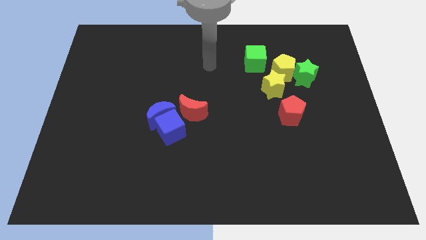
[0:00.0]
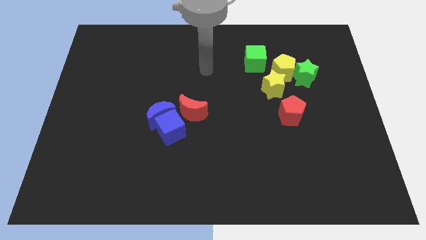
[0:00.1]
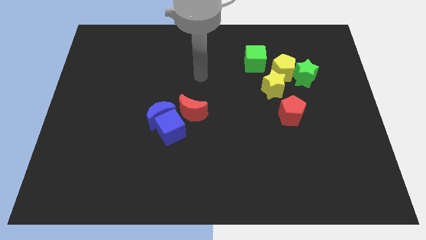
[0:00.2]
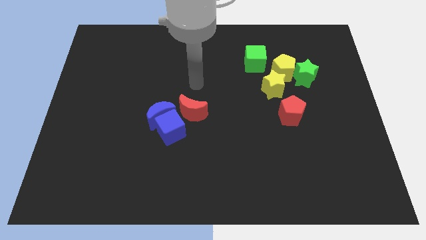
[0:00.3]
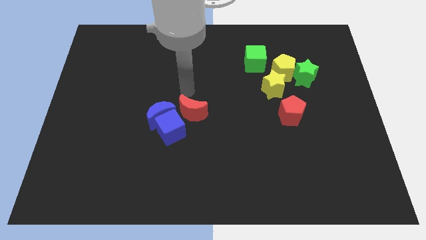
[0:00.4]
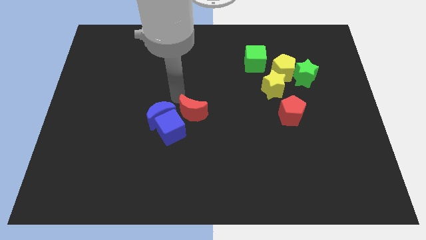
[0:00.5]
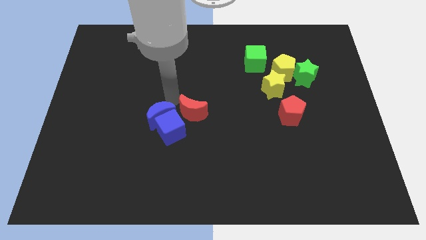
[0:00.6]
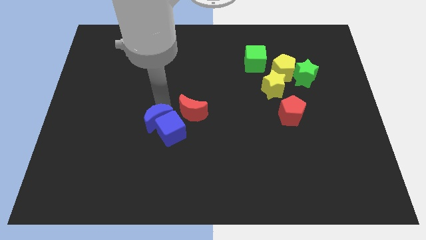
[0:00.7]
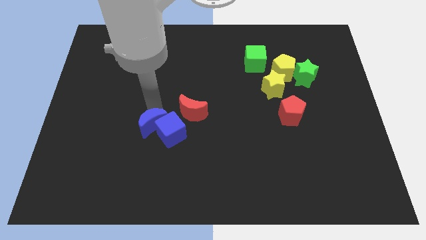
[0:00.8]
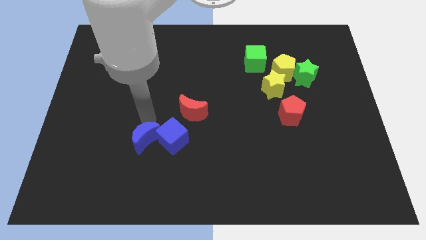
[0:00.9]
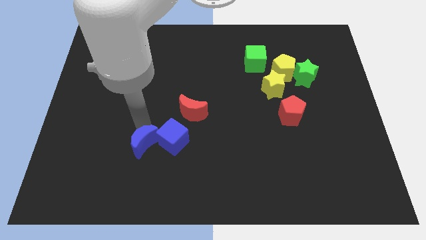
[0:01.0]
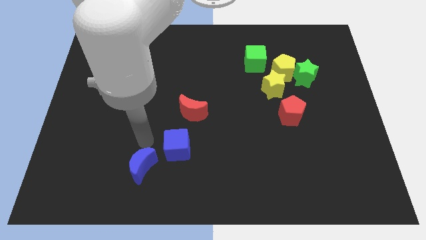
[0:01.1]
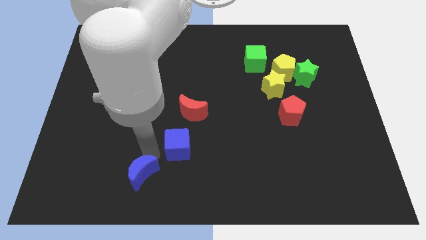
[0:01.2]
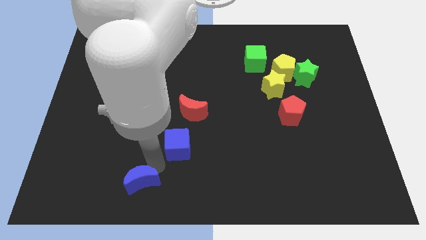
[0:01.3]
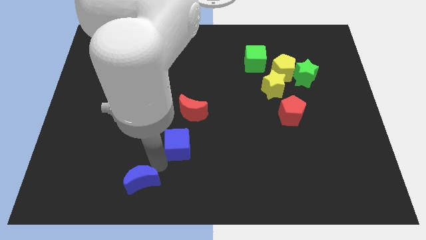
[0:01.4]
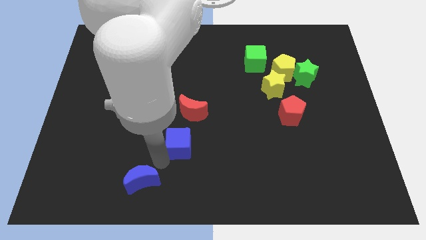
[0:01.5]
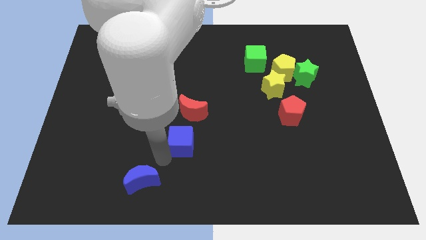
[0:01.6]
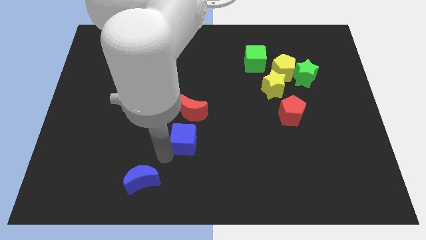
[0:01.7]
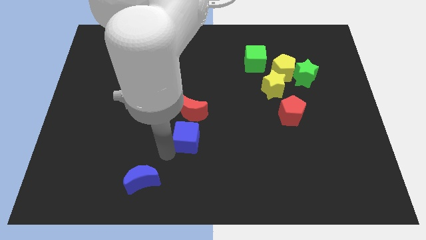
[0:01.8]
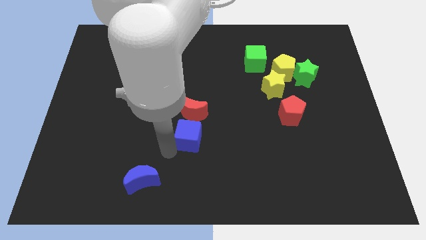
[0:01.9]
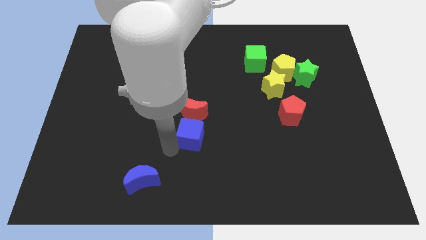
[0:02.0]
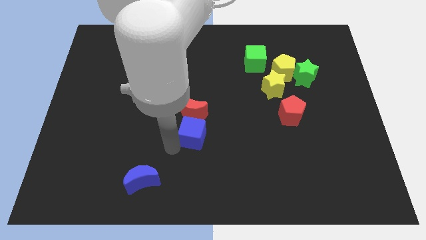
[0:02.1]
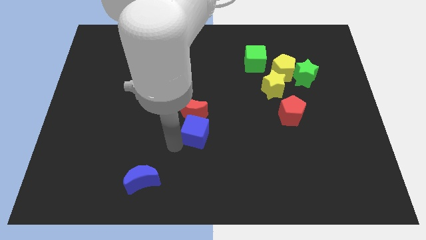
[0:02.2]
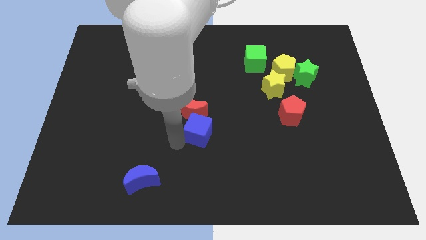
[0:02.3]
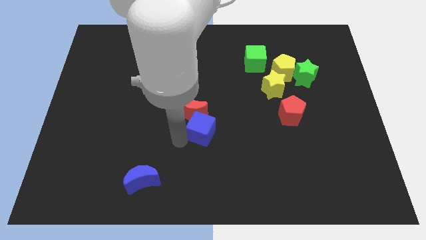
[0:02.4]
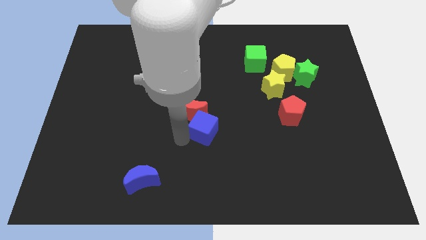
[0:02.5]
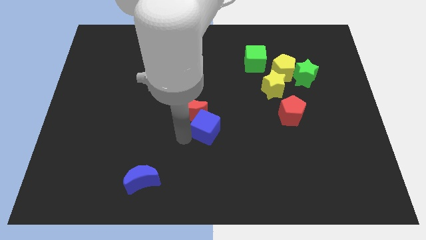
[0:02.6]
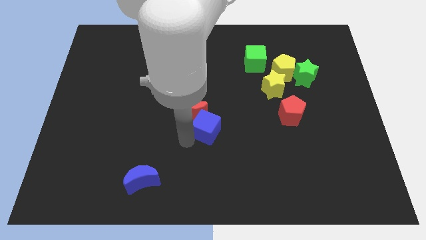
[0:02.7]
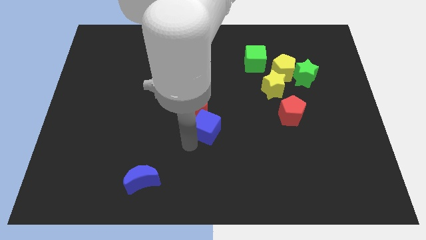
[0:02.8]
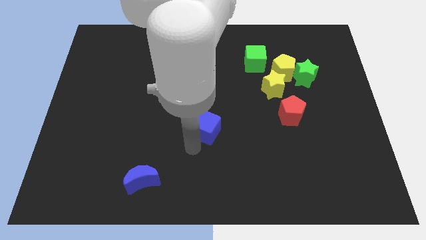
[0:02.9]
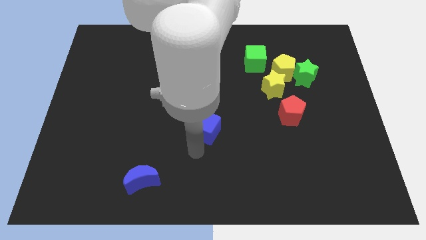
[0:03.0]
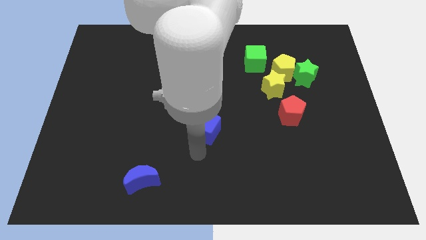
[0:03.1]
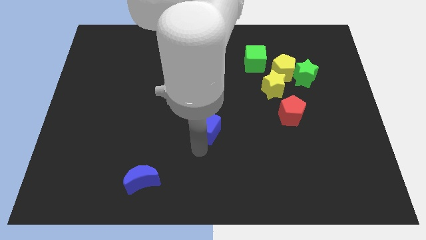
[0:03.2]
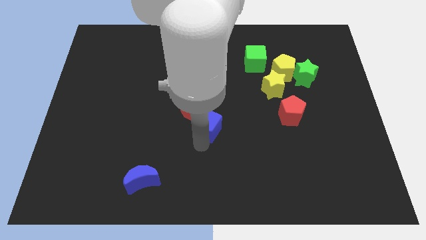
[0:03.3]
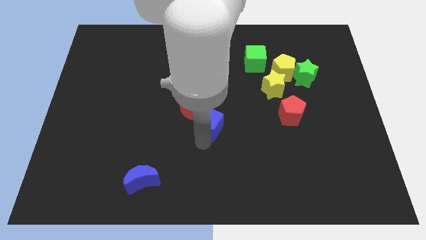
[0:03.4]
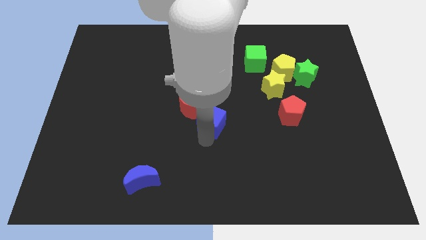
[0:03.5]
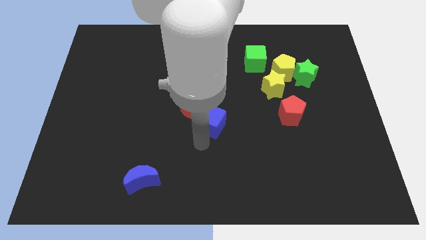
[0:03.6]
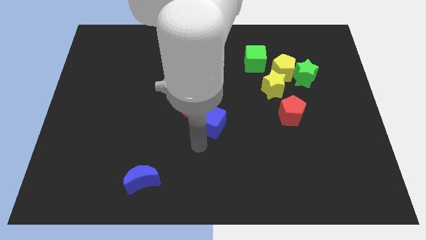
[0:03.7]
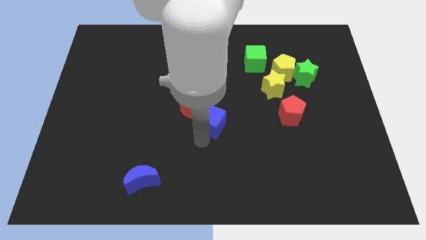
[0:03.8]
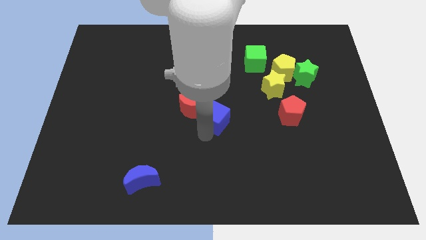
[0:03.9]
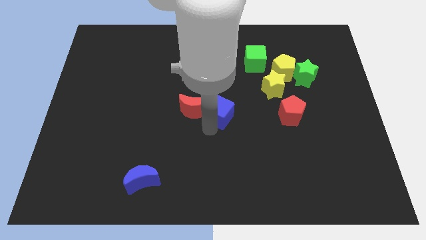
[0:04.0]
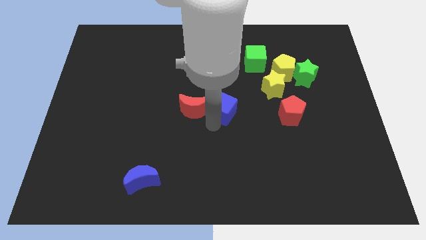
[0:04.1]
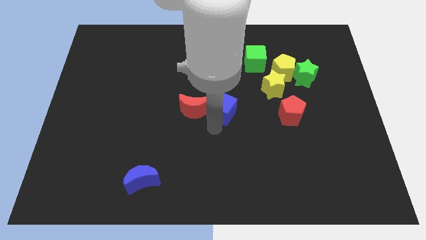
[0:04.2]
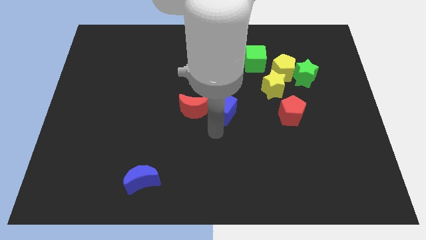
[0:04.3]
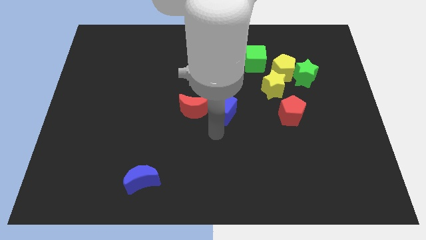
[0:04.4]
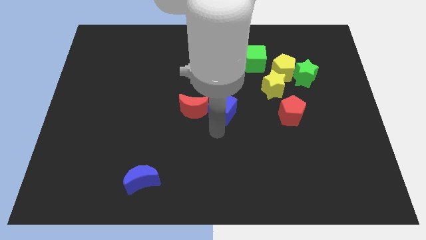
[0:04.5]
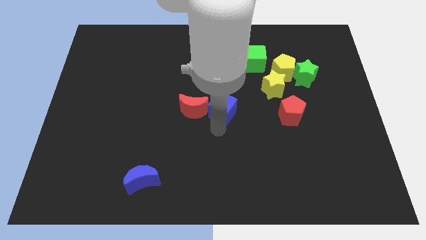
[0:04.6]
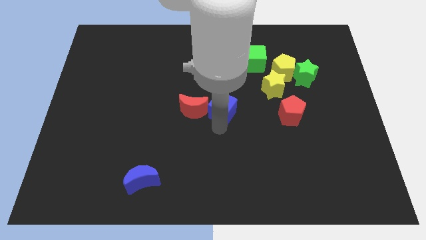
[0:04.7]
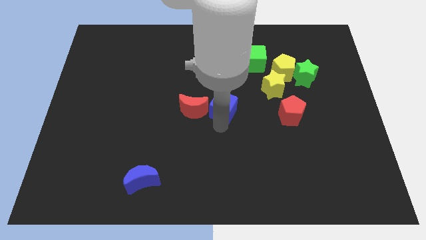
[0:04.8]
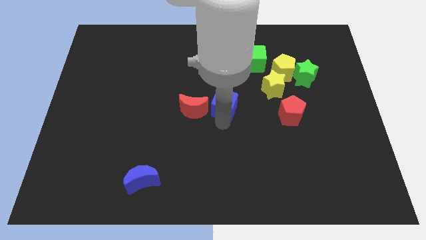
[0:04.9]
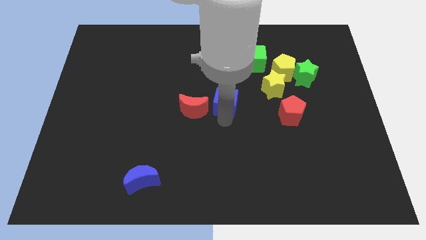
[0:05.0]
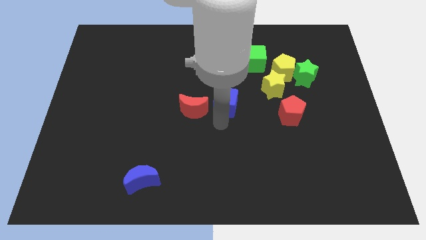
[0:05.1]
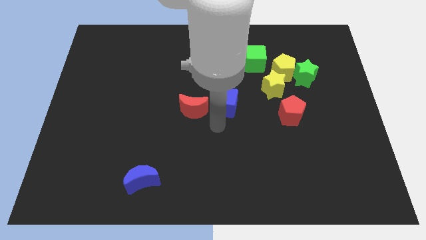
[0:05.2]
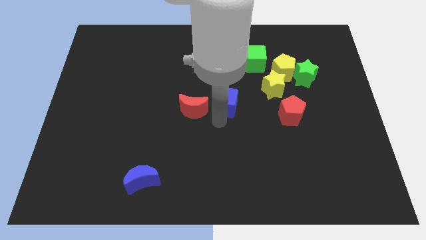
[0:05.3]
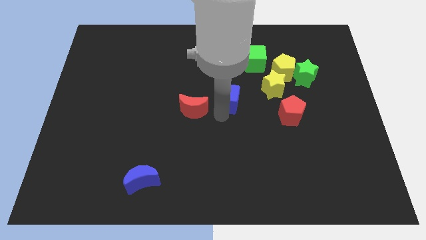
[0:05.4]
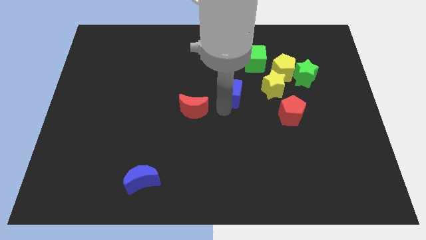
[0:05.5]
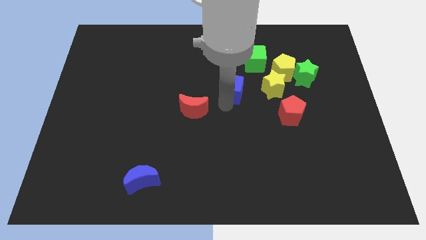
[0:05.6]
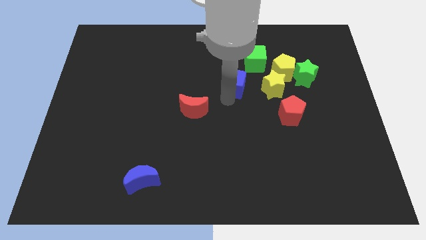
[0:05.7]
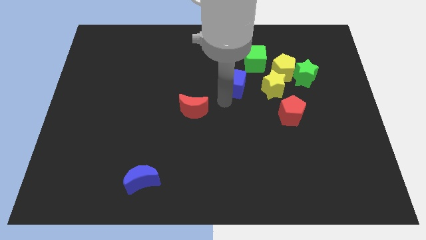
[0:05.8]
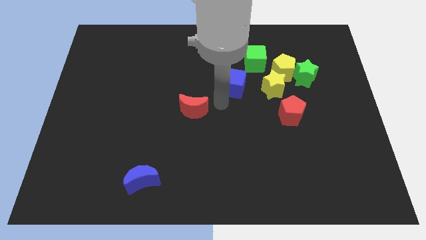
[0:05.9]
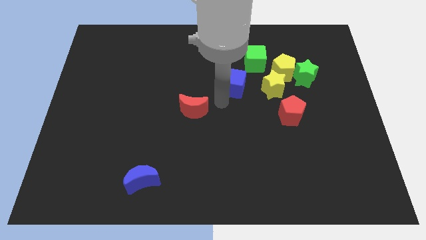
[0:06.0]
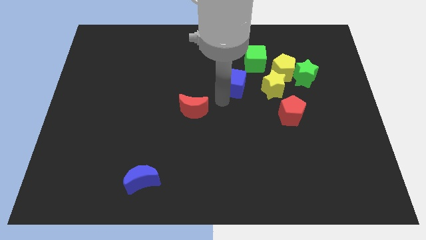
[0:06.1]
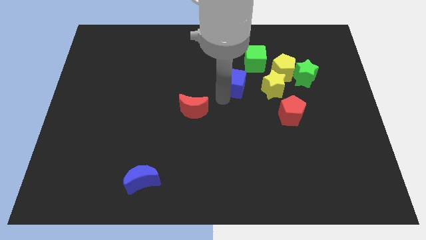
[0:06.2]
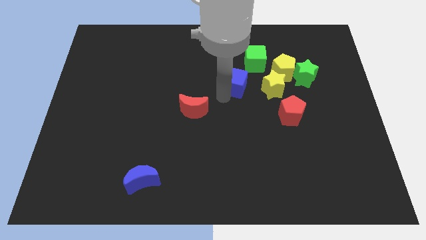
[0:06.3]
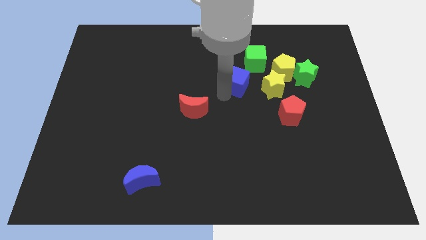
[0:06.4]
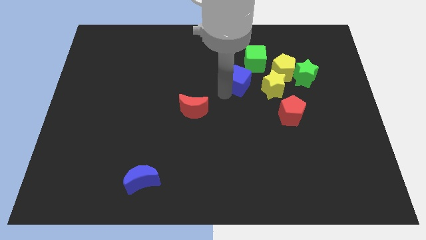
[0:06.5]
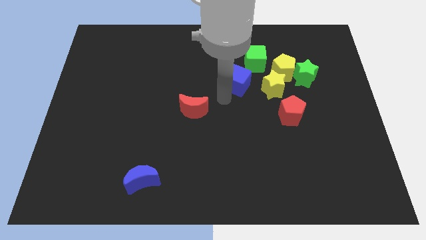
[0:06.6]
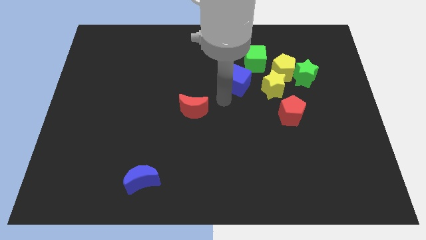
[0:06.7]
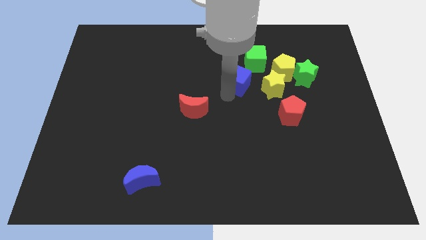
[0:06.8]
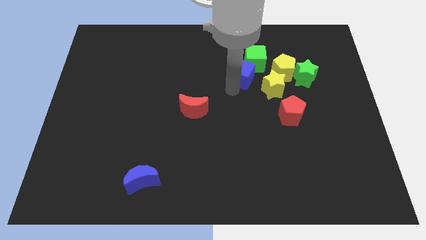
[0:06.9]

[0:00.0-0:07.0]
slide the blue cube close to the green cube
